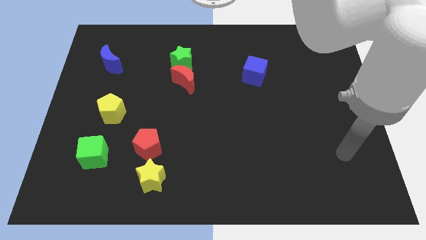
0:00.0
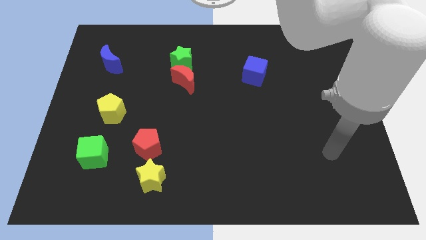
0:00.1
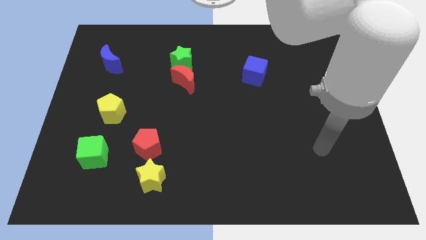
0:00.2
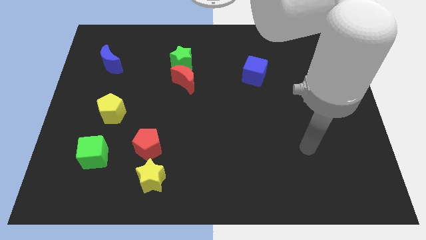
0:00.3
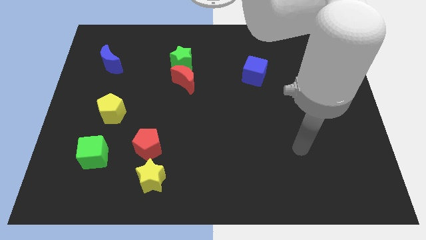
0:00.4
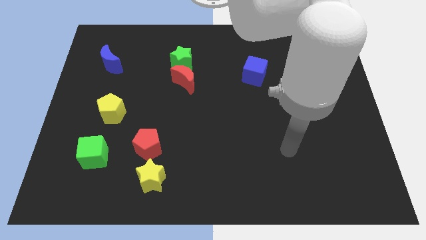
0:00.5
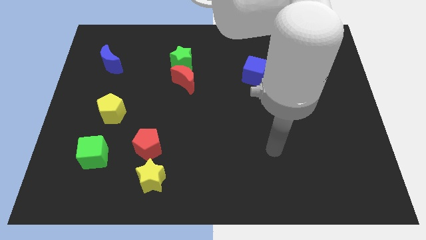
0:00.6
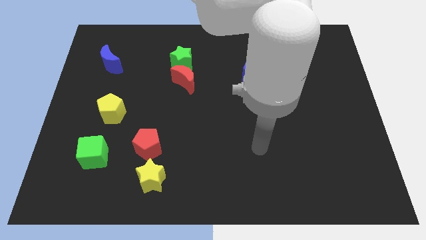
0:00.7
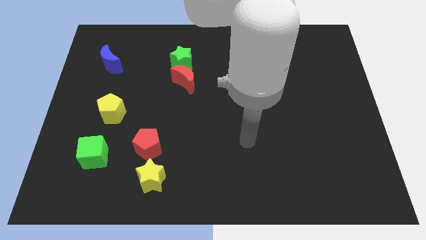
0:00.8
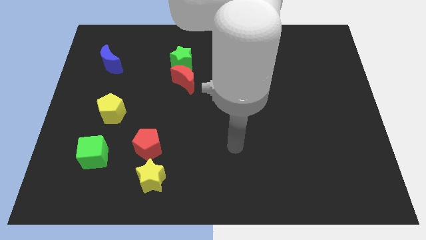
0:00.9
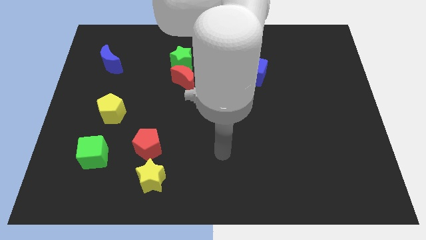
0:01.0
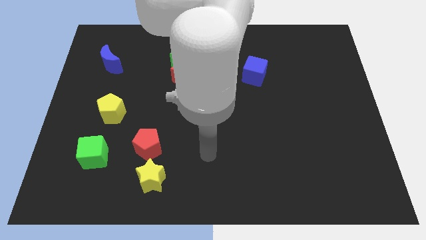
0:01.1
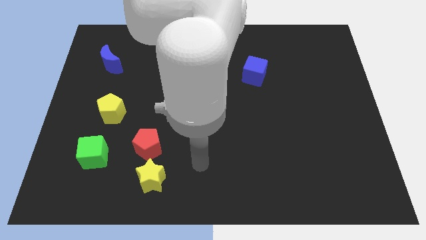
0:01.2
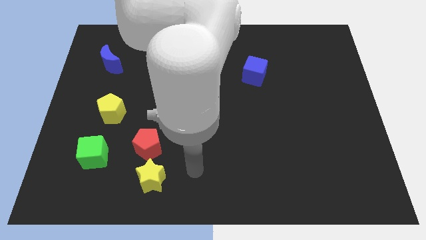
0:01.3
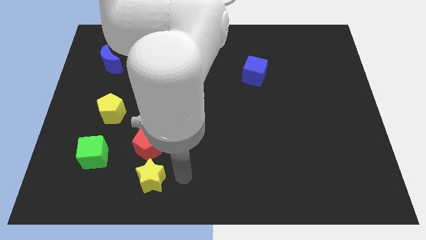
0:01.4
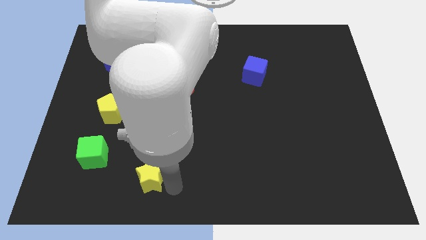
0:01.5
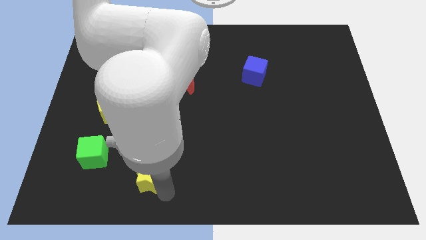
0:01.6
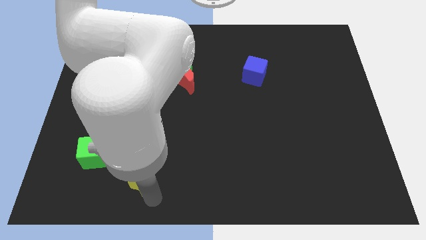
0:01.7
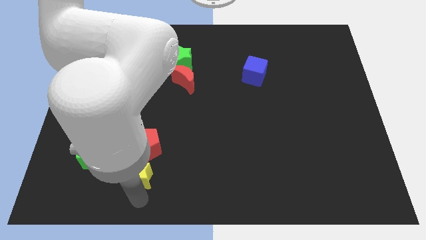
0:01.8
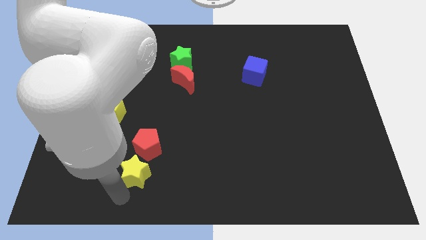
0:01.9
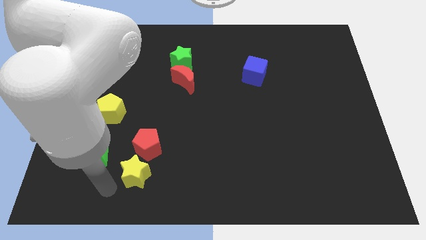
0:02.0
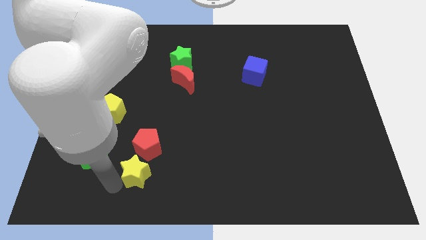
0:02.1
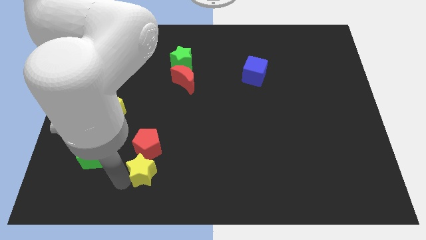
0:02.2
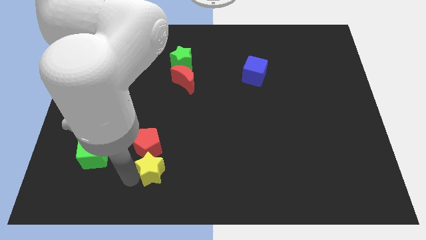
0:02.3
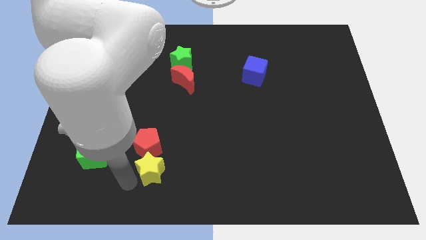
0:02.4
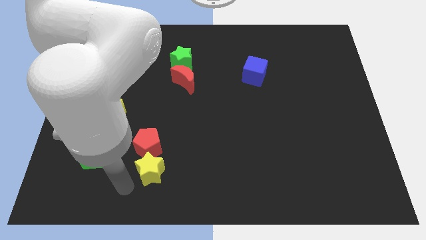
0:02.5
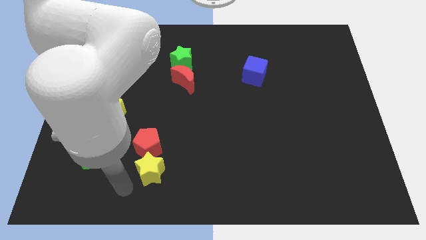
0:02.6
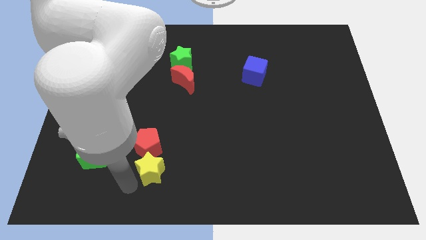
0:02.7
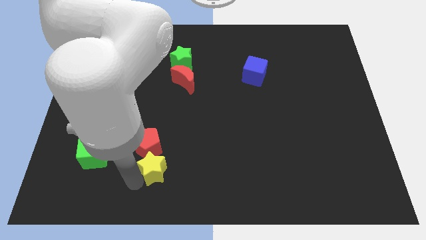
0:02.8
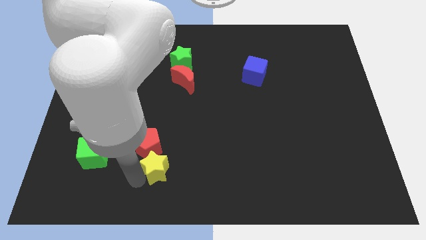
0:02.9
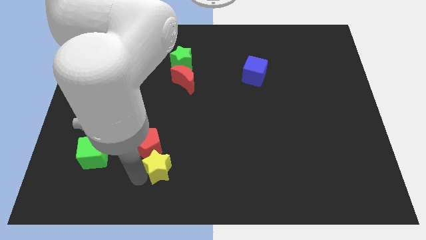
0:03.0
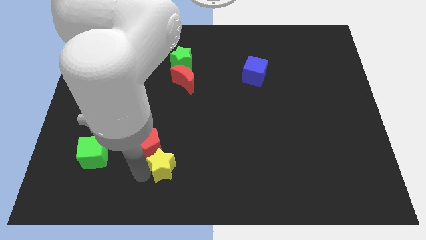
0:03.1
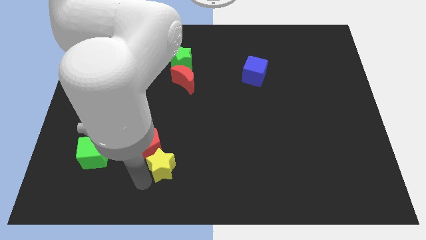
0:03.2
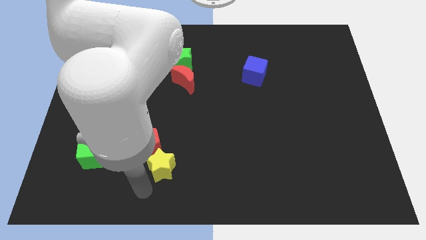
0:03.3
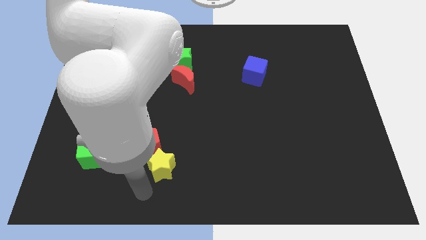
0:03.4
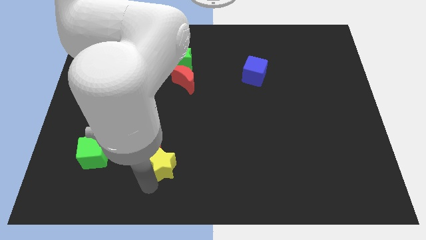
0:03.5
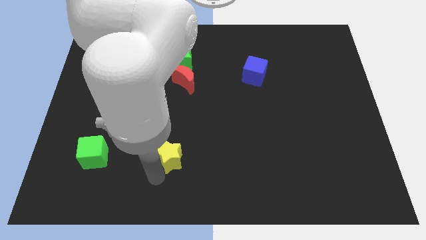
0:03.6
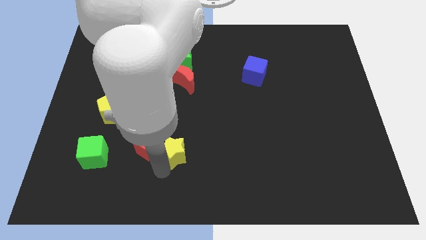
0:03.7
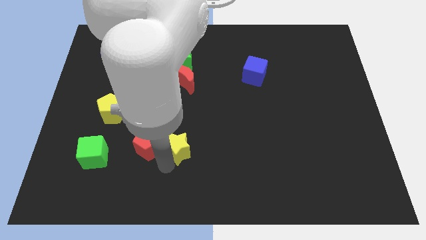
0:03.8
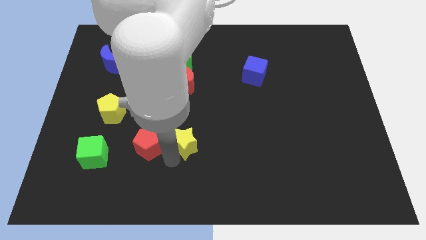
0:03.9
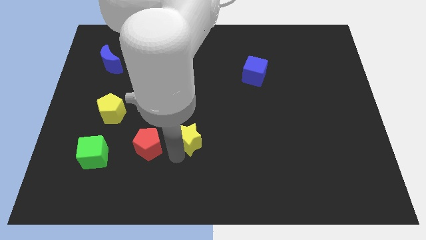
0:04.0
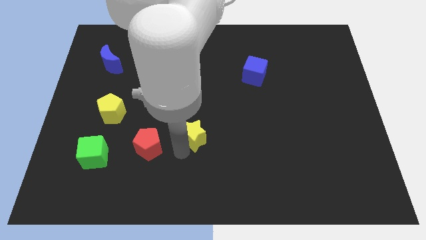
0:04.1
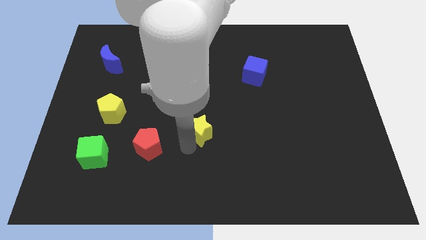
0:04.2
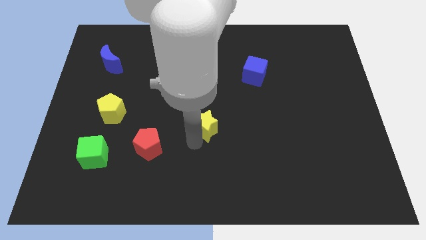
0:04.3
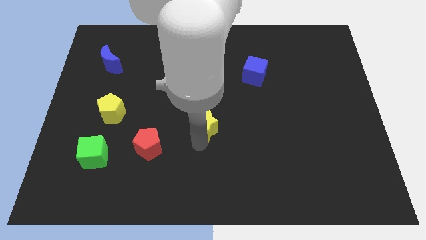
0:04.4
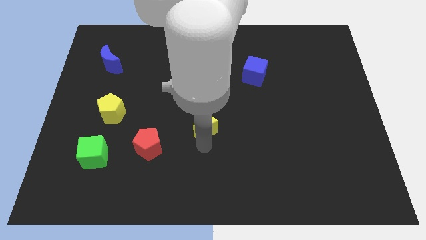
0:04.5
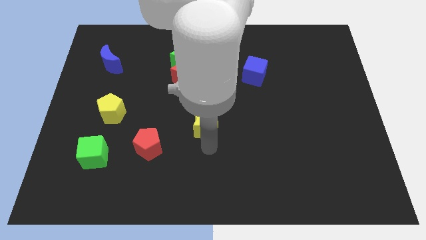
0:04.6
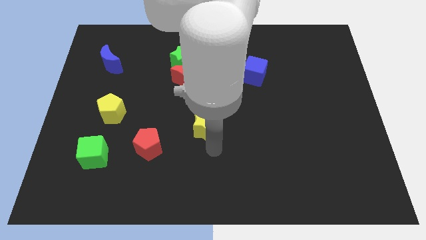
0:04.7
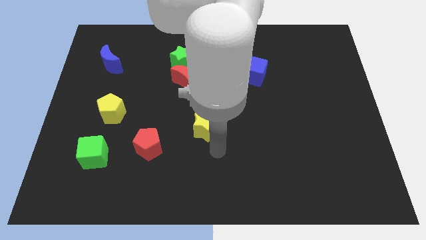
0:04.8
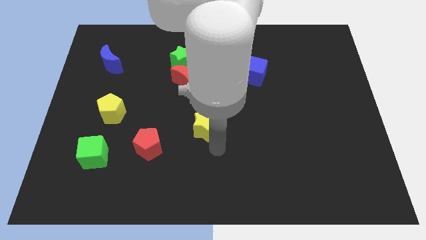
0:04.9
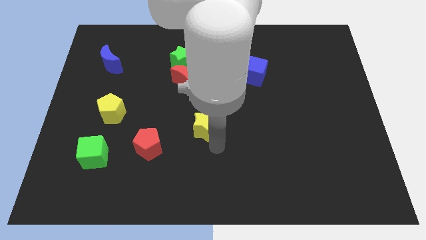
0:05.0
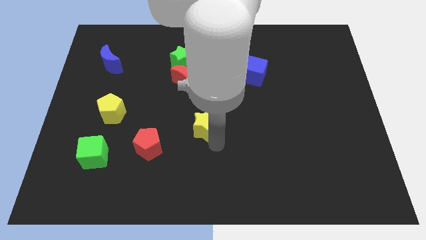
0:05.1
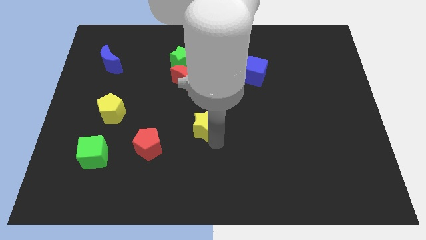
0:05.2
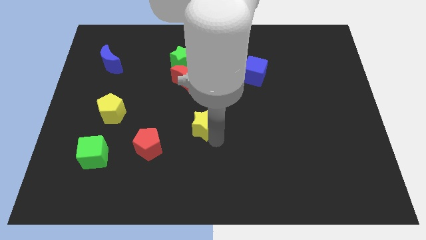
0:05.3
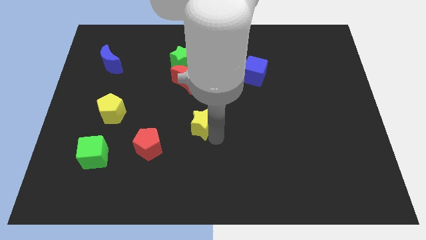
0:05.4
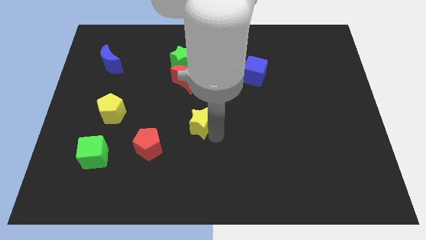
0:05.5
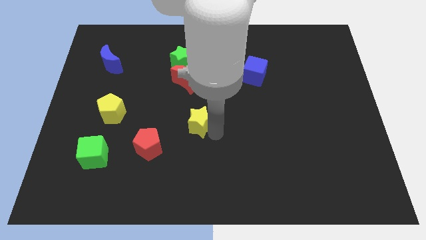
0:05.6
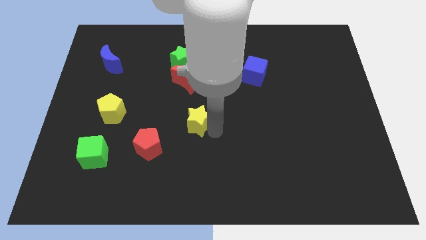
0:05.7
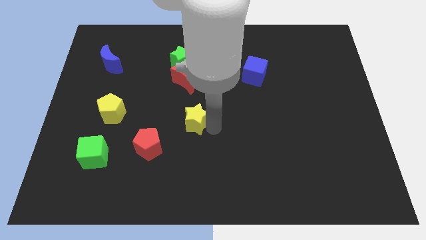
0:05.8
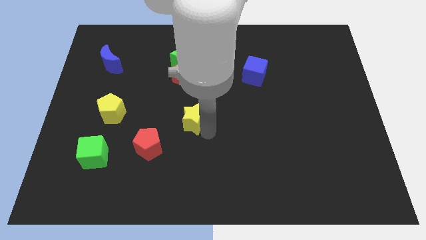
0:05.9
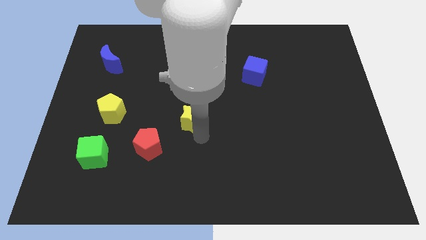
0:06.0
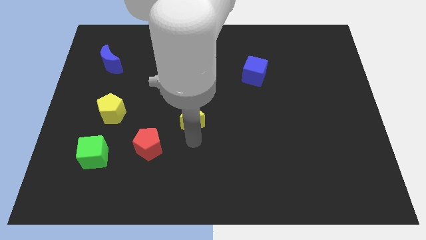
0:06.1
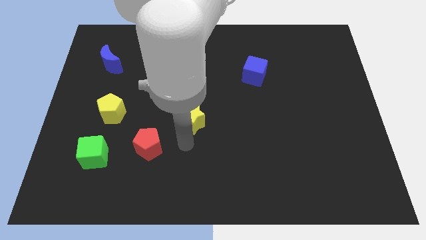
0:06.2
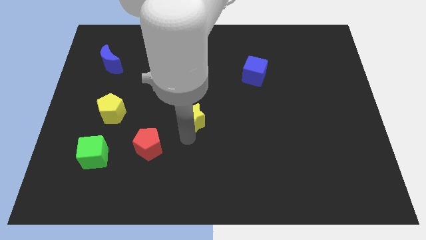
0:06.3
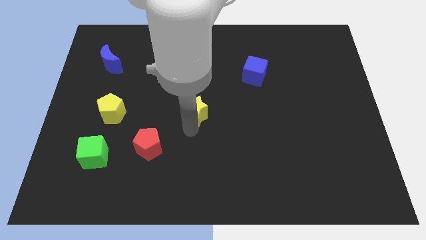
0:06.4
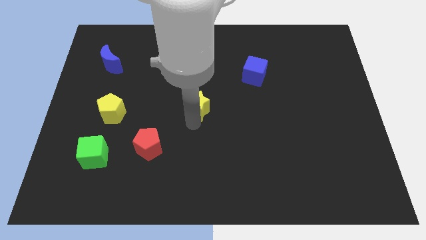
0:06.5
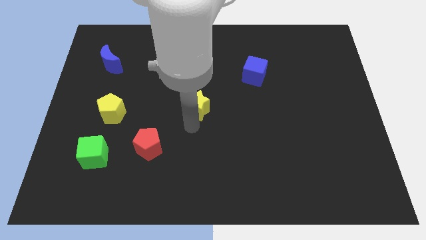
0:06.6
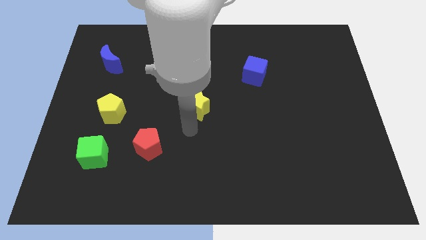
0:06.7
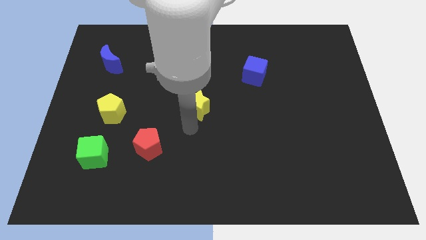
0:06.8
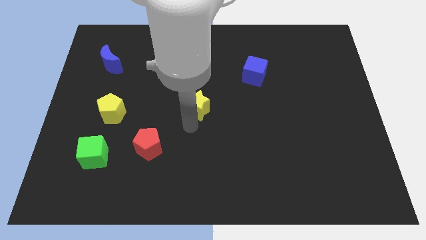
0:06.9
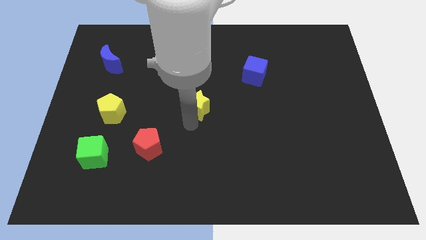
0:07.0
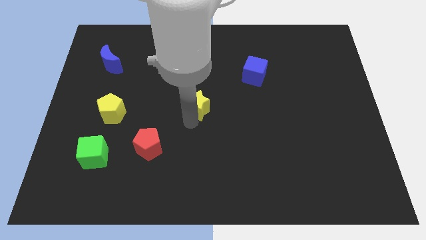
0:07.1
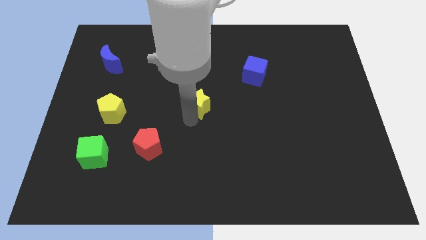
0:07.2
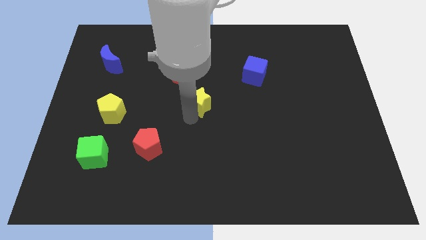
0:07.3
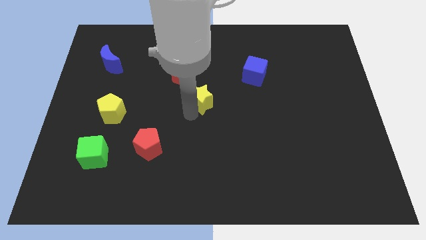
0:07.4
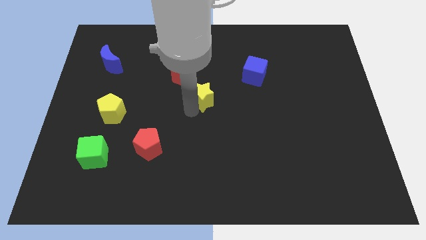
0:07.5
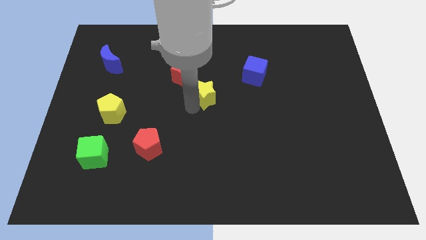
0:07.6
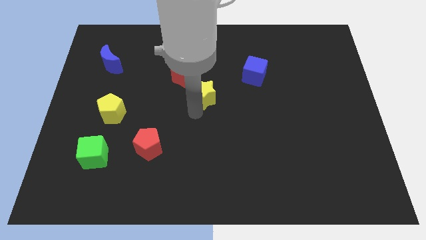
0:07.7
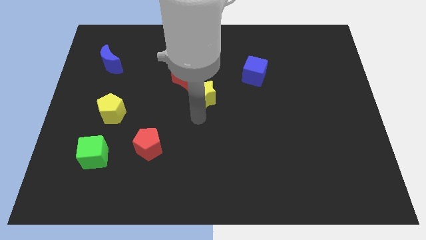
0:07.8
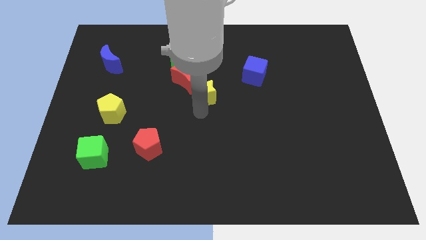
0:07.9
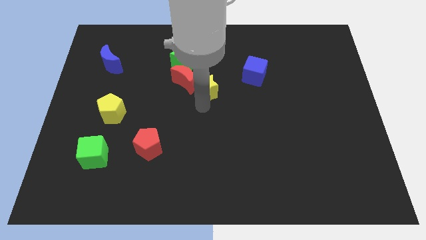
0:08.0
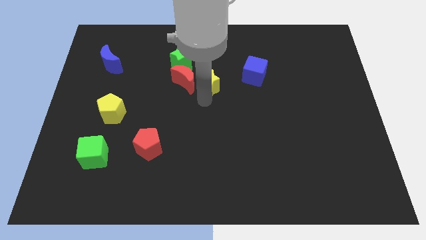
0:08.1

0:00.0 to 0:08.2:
put the yellow star to the left of the blue cube
